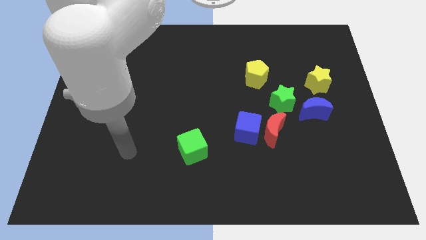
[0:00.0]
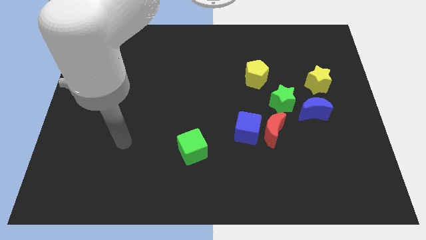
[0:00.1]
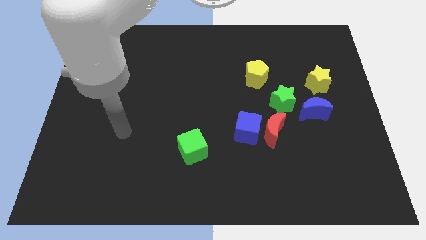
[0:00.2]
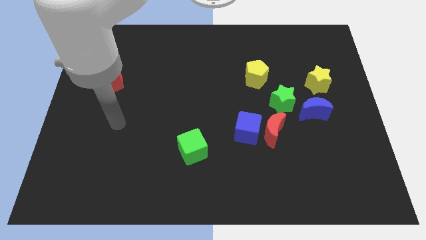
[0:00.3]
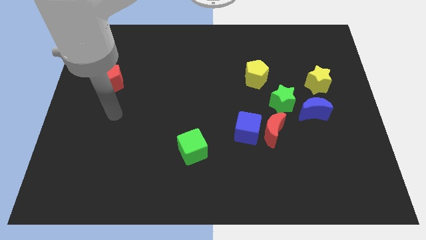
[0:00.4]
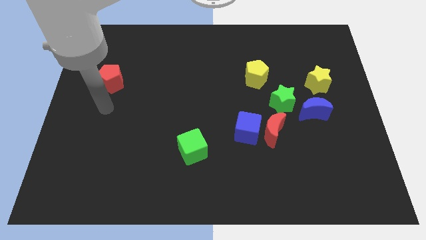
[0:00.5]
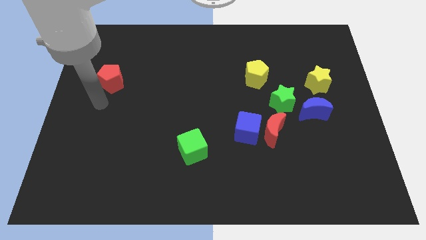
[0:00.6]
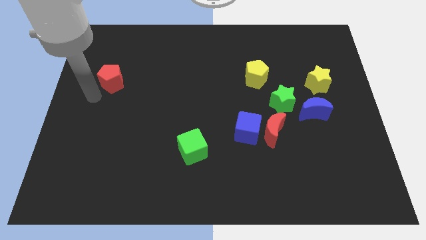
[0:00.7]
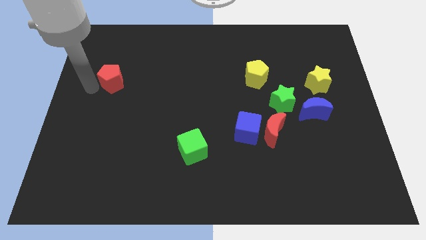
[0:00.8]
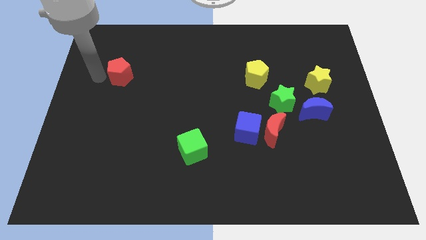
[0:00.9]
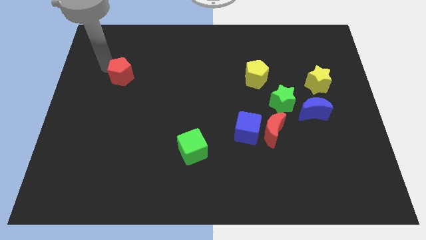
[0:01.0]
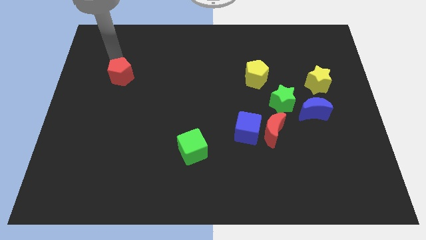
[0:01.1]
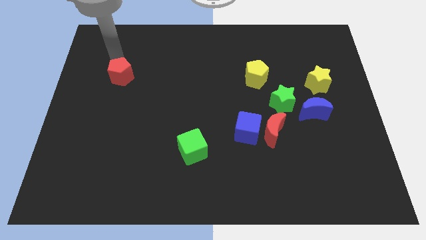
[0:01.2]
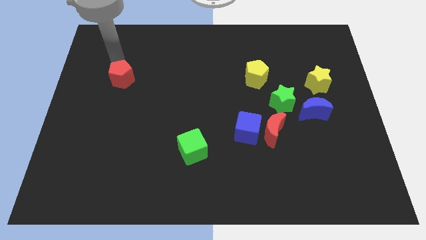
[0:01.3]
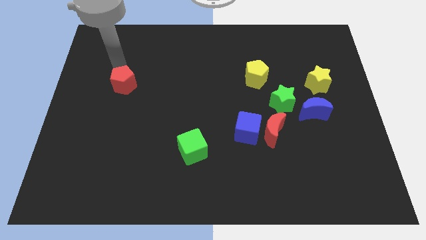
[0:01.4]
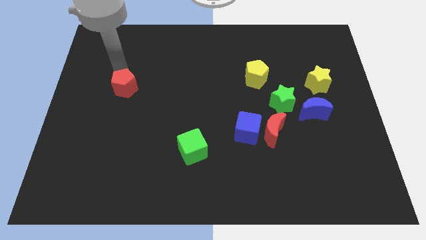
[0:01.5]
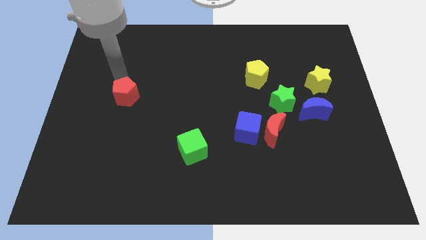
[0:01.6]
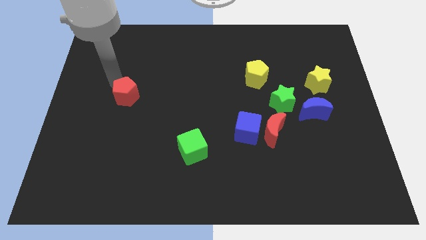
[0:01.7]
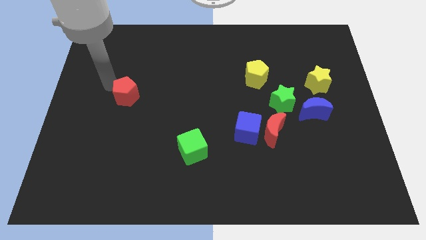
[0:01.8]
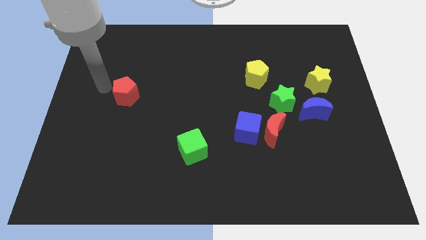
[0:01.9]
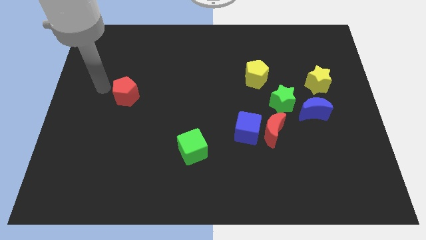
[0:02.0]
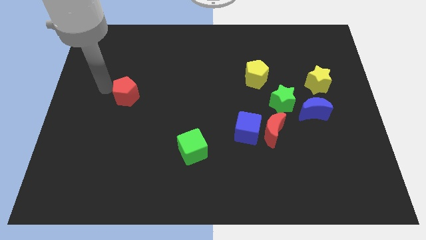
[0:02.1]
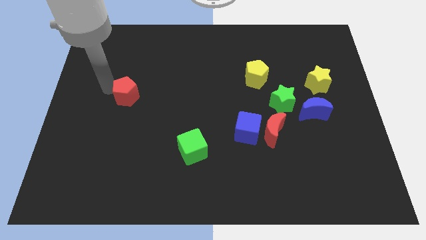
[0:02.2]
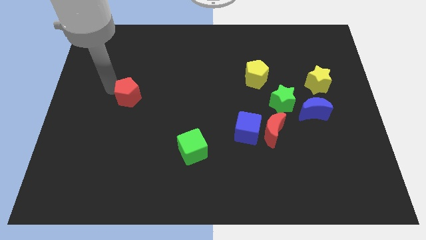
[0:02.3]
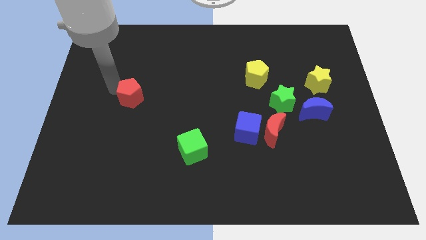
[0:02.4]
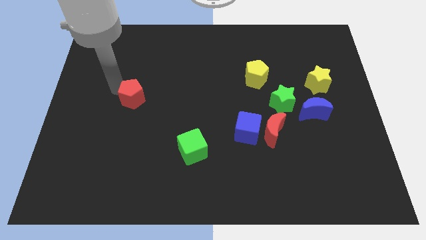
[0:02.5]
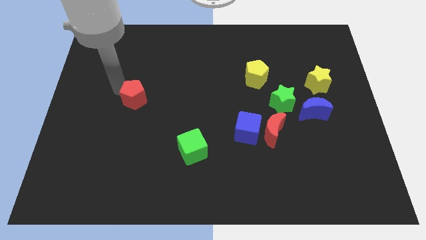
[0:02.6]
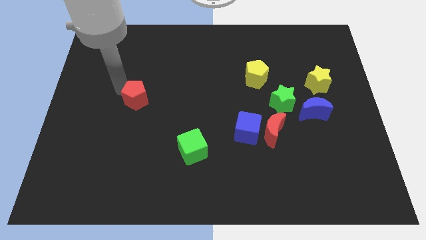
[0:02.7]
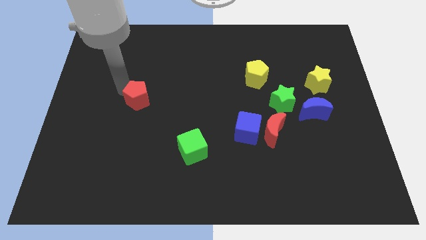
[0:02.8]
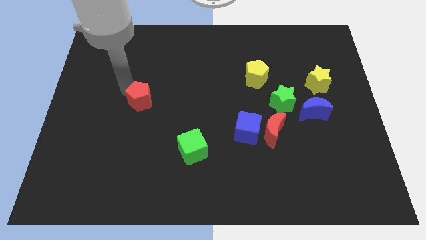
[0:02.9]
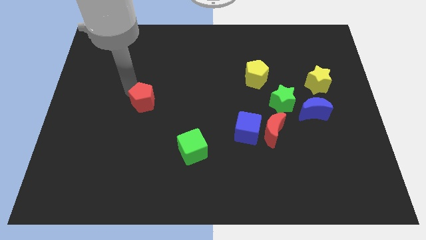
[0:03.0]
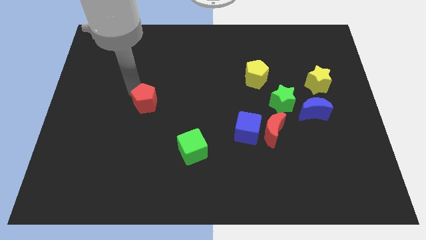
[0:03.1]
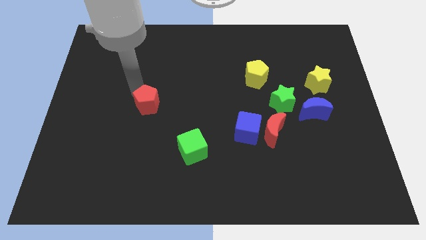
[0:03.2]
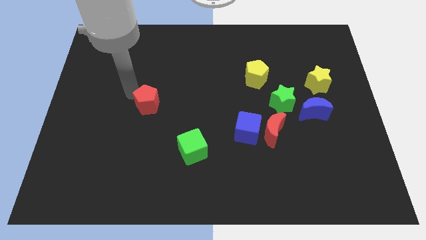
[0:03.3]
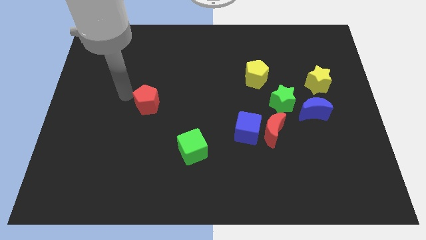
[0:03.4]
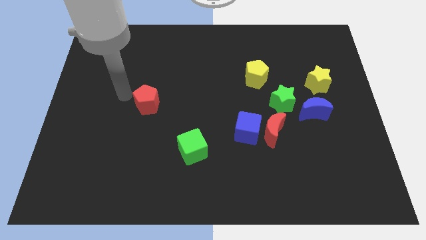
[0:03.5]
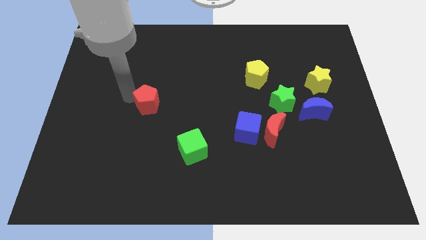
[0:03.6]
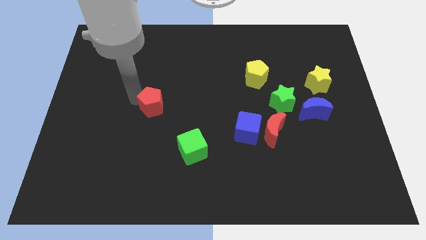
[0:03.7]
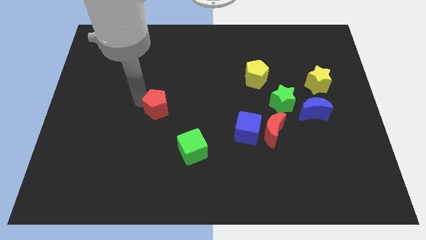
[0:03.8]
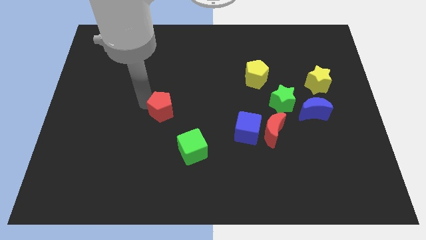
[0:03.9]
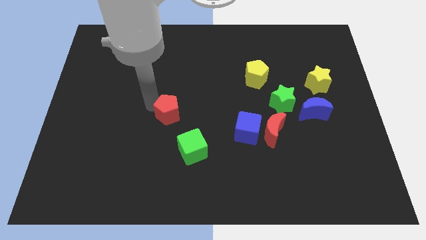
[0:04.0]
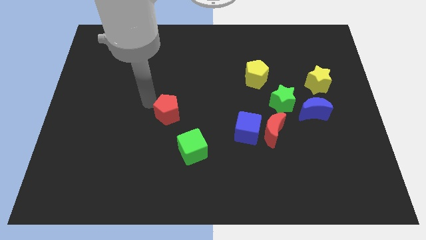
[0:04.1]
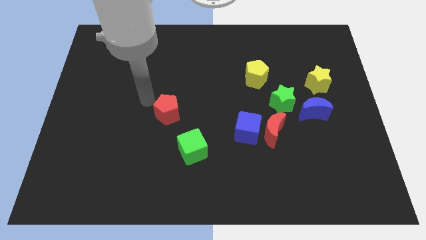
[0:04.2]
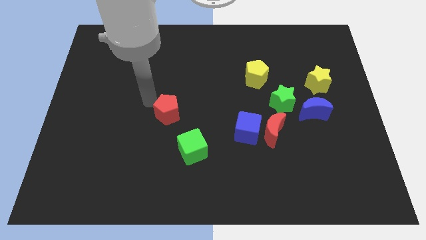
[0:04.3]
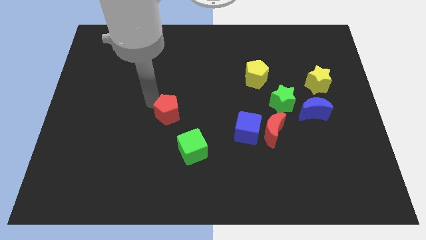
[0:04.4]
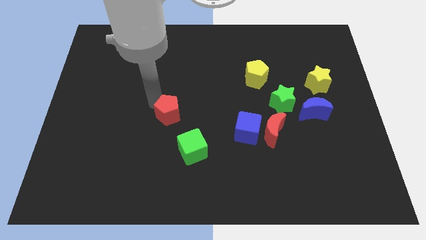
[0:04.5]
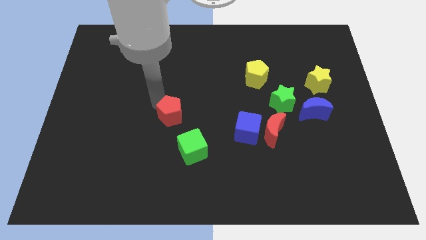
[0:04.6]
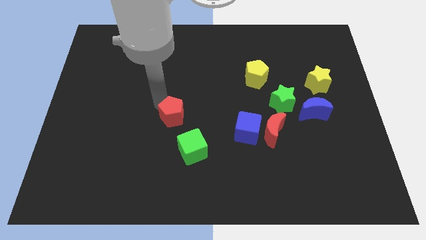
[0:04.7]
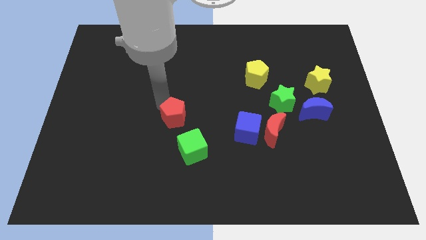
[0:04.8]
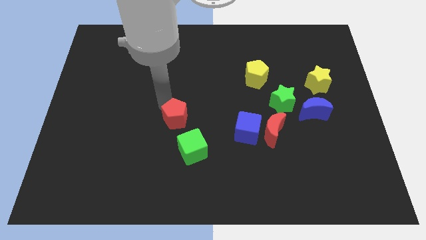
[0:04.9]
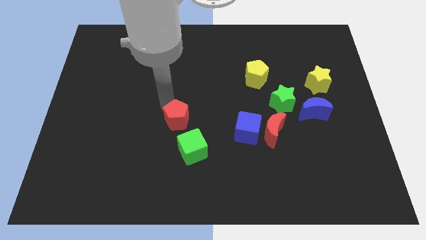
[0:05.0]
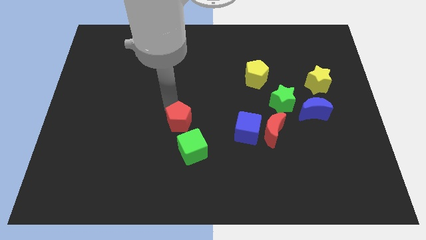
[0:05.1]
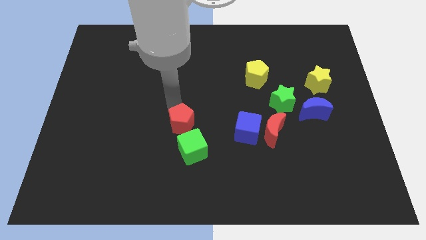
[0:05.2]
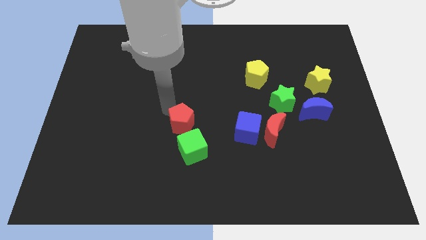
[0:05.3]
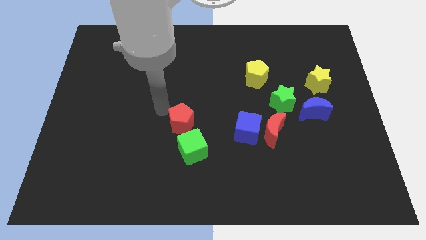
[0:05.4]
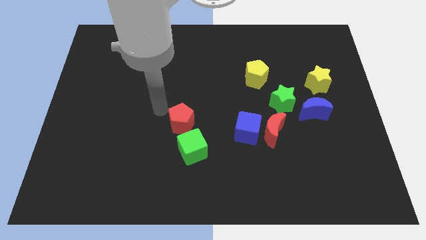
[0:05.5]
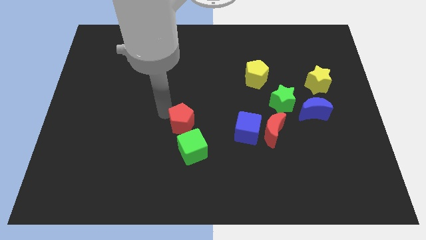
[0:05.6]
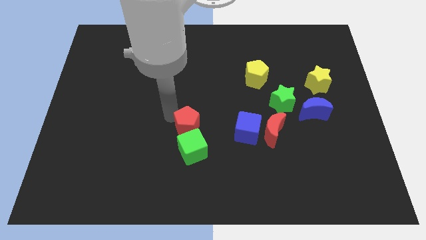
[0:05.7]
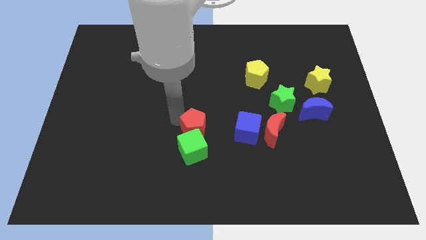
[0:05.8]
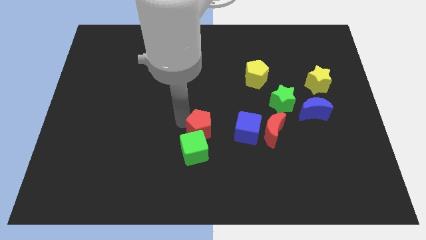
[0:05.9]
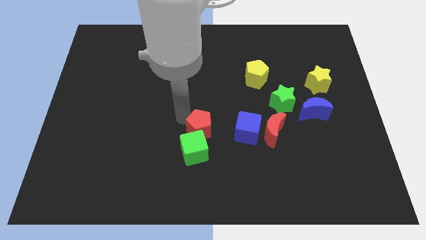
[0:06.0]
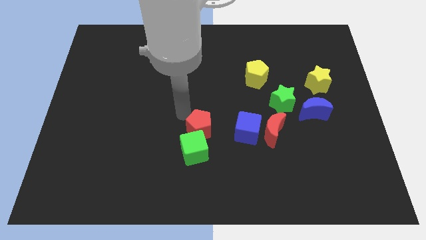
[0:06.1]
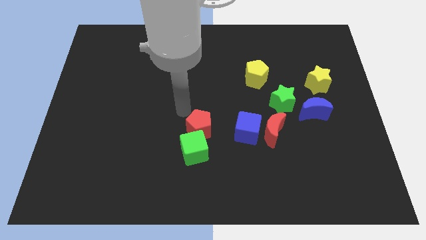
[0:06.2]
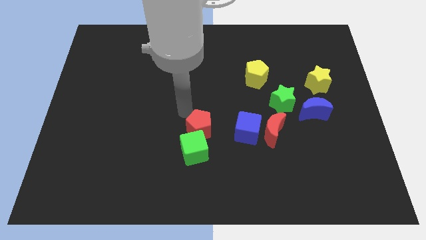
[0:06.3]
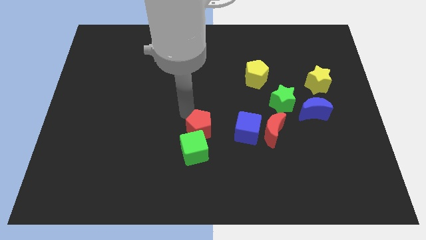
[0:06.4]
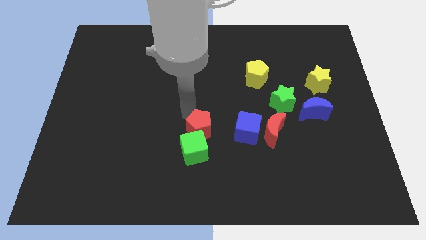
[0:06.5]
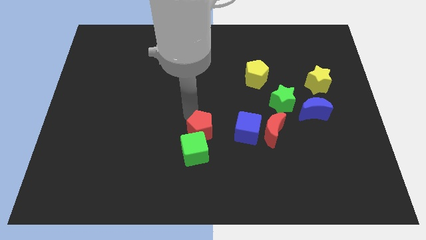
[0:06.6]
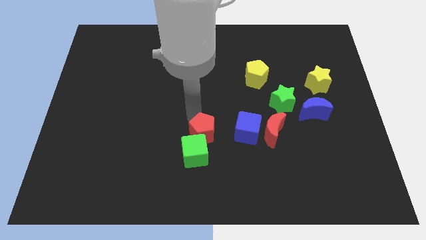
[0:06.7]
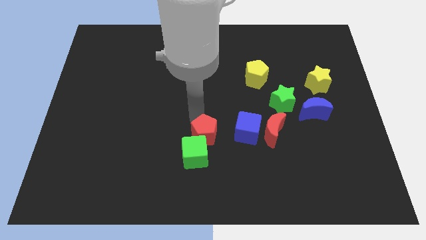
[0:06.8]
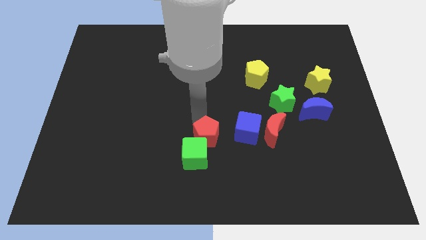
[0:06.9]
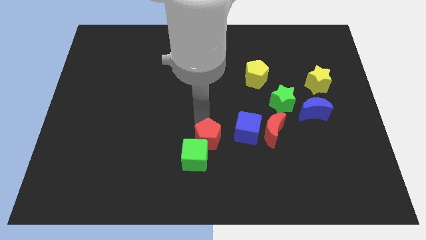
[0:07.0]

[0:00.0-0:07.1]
move the red pentagon to the bottom left side of the blue cube
